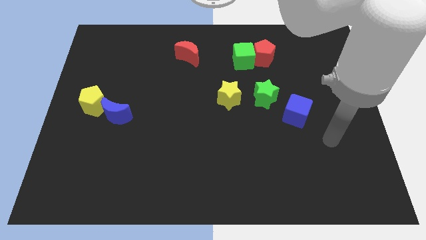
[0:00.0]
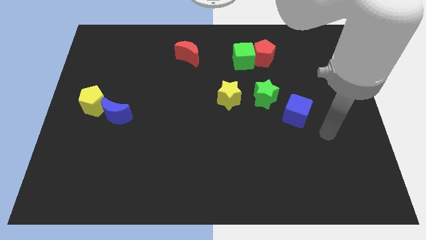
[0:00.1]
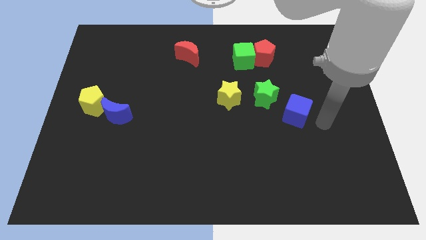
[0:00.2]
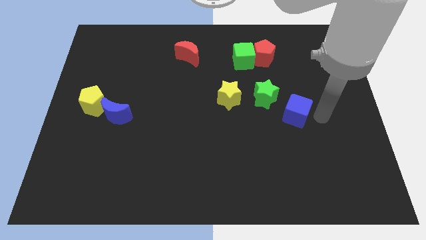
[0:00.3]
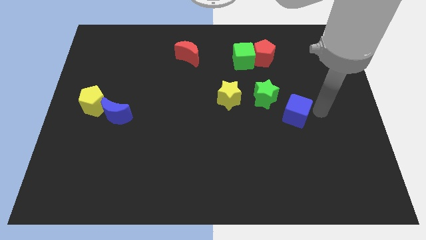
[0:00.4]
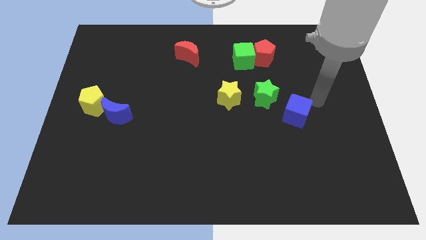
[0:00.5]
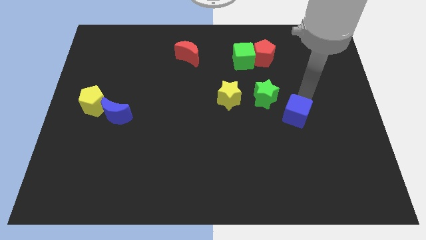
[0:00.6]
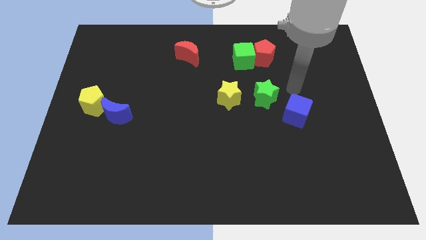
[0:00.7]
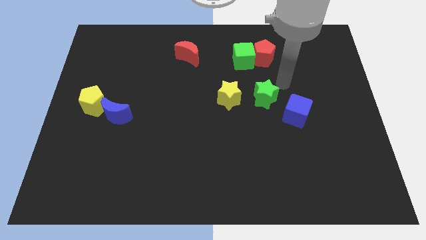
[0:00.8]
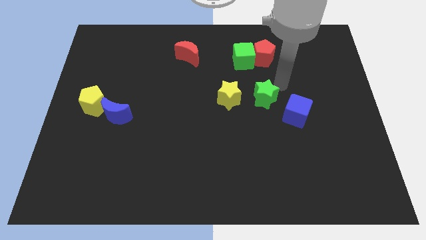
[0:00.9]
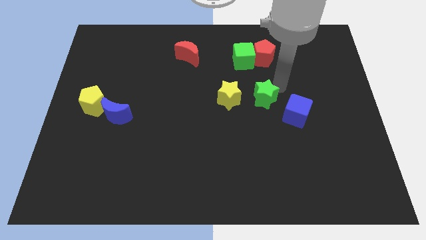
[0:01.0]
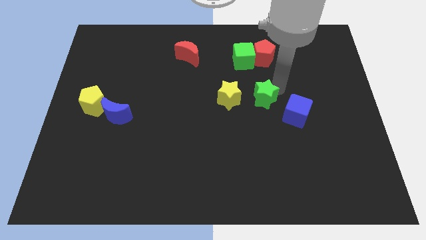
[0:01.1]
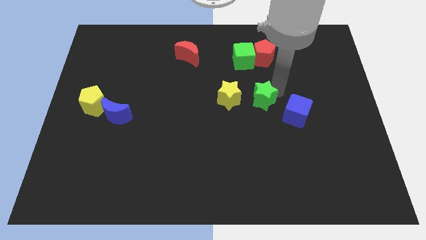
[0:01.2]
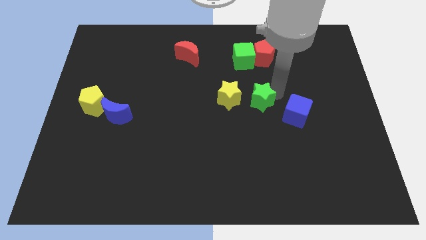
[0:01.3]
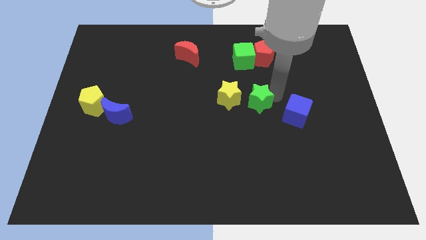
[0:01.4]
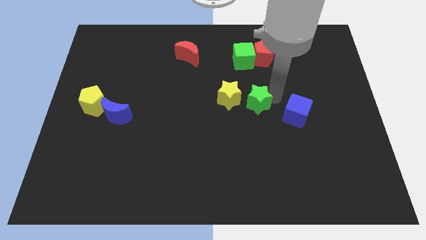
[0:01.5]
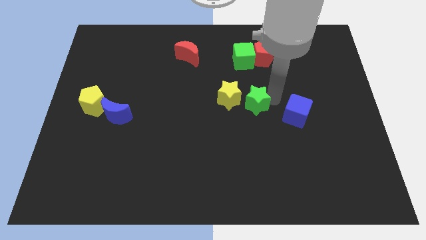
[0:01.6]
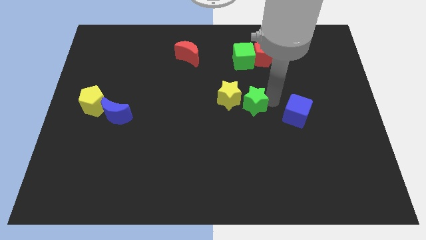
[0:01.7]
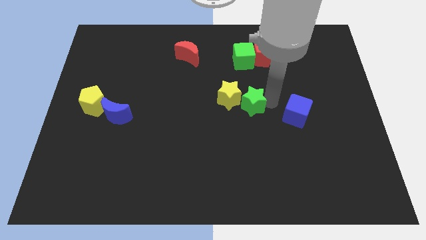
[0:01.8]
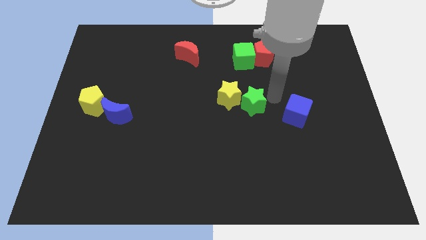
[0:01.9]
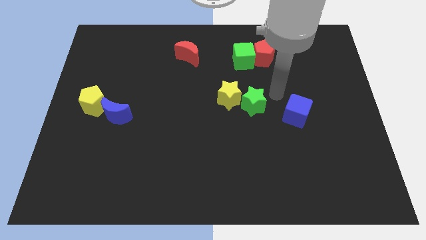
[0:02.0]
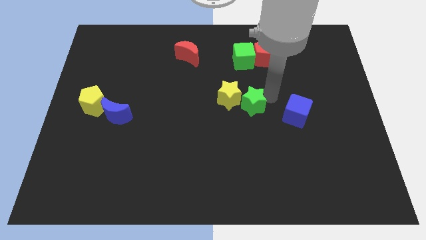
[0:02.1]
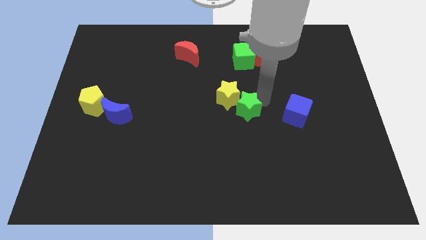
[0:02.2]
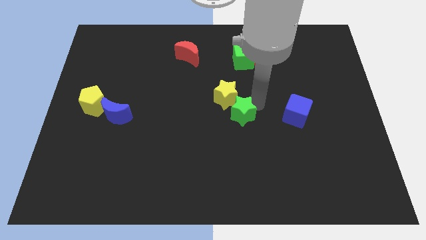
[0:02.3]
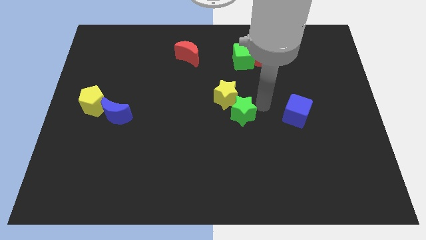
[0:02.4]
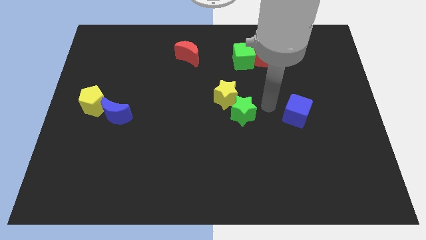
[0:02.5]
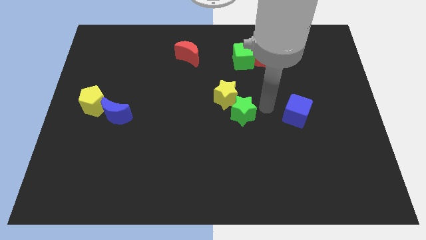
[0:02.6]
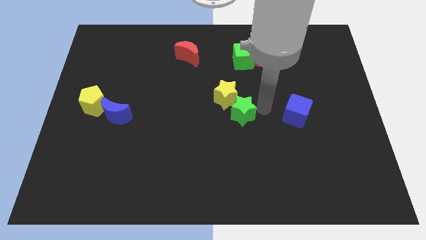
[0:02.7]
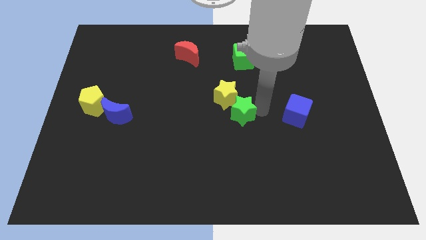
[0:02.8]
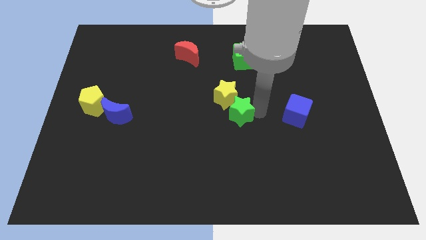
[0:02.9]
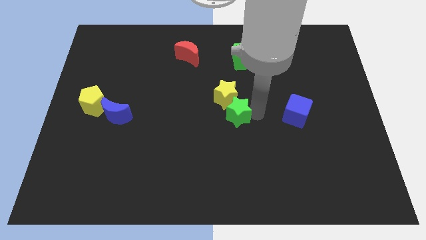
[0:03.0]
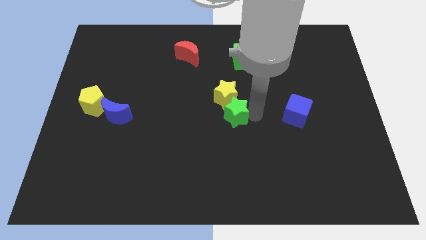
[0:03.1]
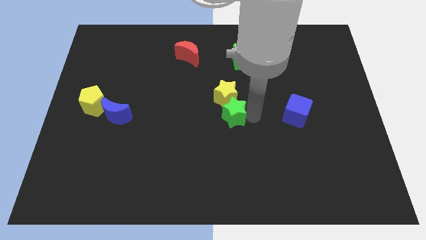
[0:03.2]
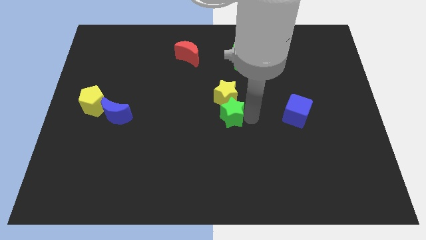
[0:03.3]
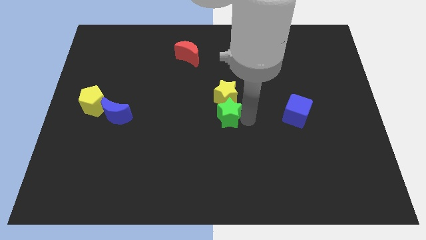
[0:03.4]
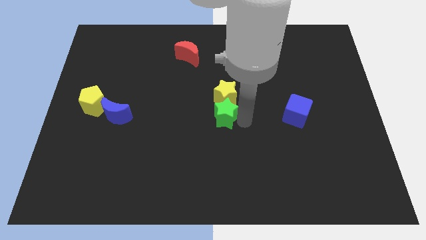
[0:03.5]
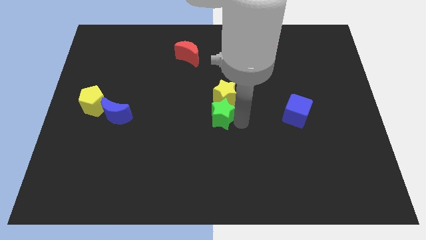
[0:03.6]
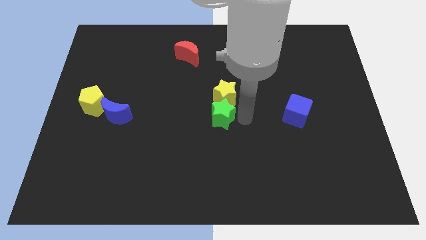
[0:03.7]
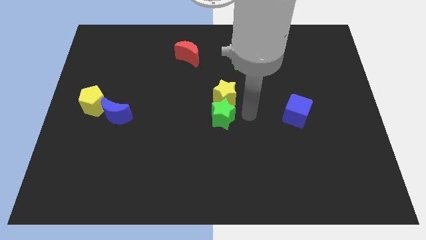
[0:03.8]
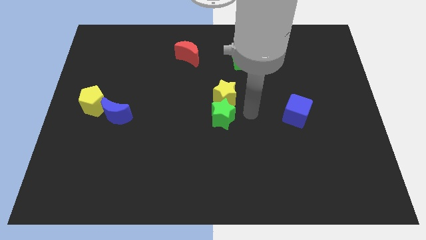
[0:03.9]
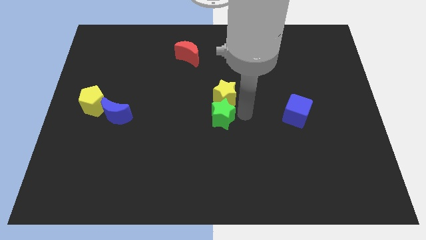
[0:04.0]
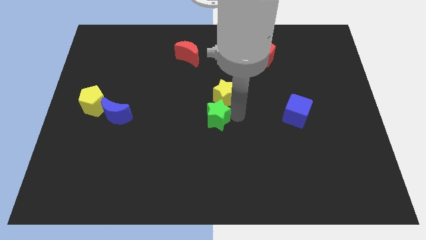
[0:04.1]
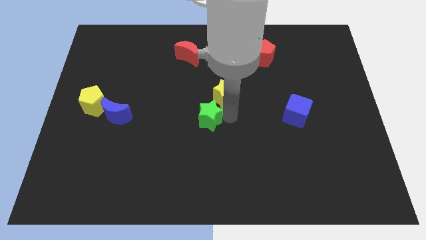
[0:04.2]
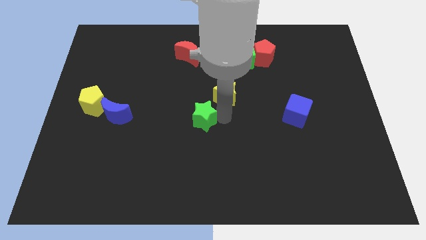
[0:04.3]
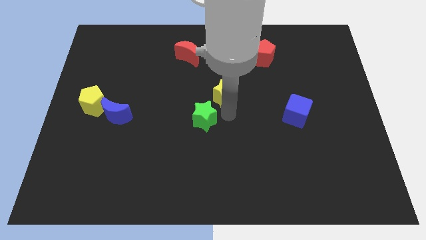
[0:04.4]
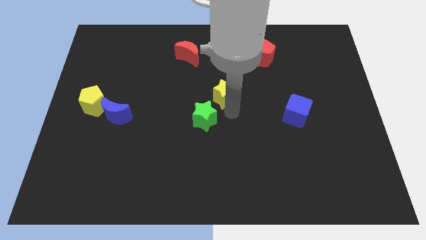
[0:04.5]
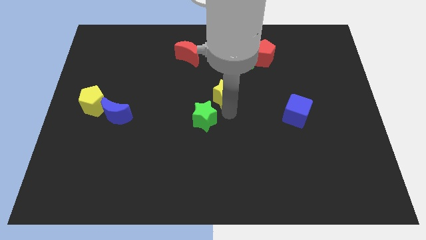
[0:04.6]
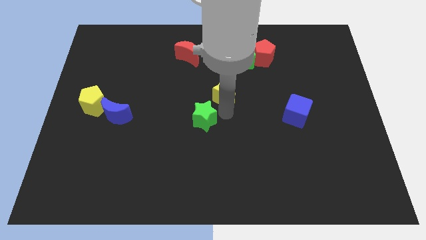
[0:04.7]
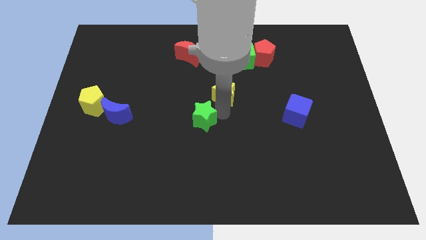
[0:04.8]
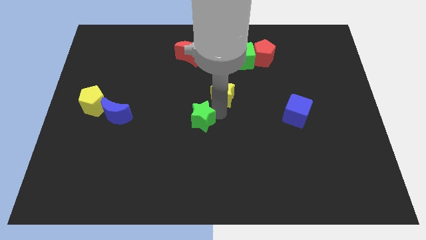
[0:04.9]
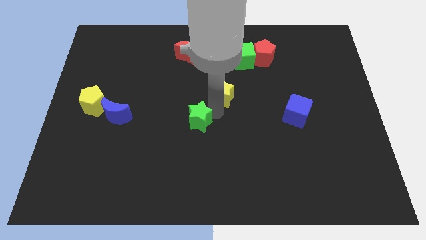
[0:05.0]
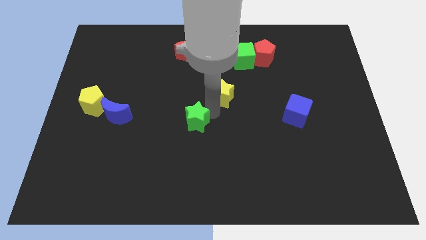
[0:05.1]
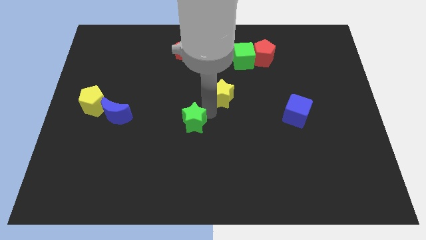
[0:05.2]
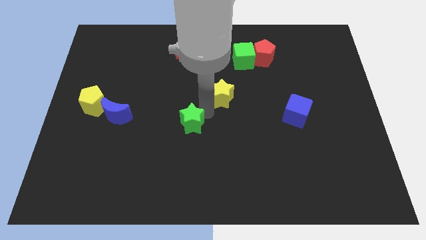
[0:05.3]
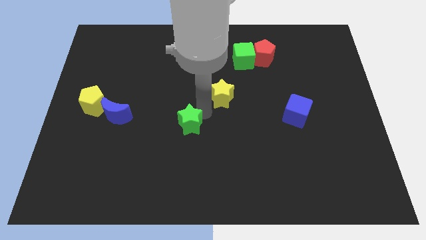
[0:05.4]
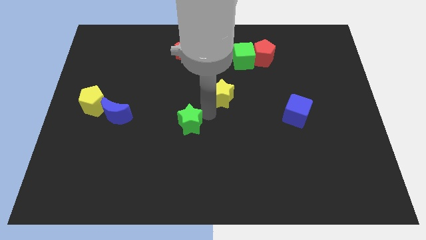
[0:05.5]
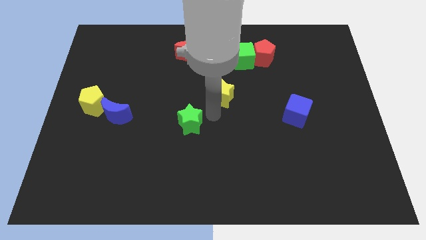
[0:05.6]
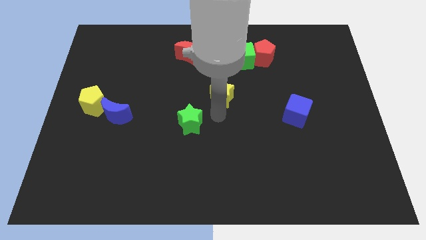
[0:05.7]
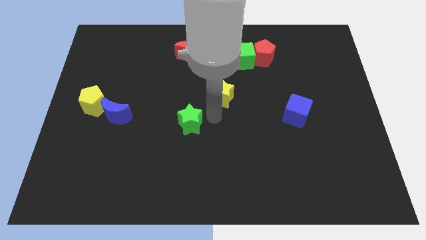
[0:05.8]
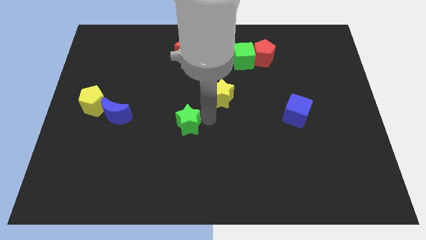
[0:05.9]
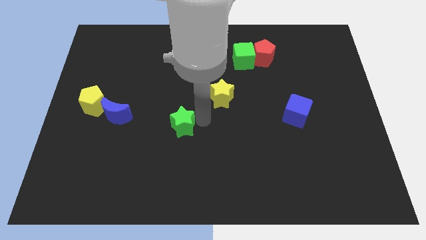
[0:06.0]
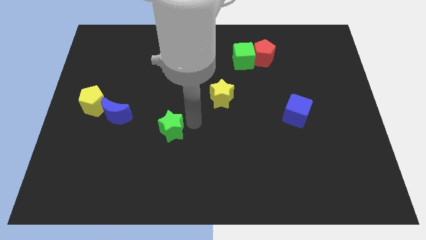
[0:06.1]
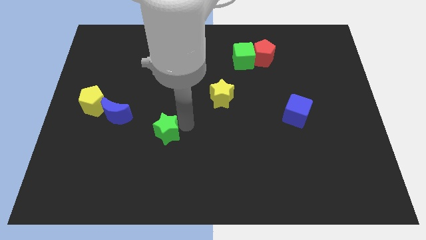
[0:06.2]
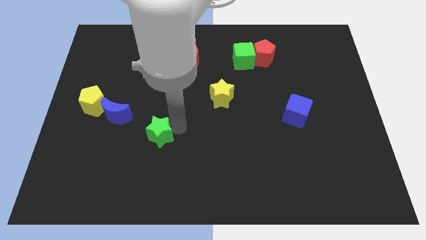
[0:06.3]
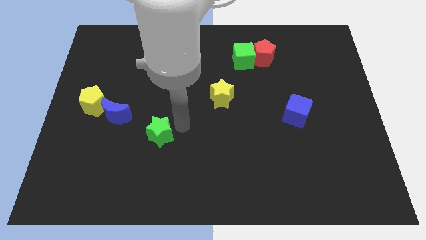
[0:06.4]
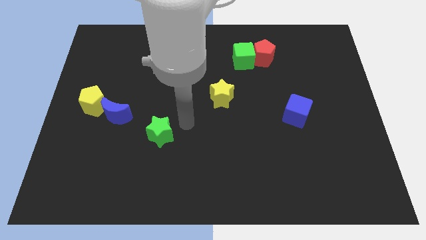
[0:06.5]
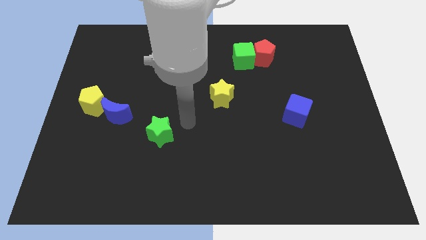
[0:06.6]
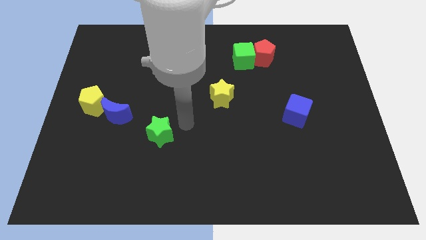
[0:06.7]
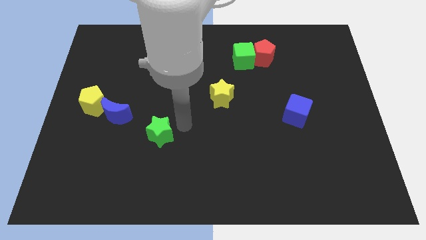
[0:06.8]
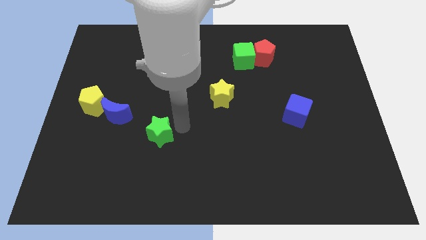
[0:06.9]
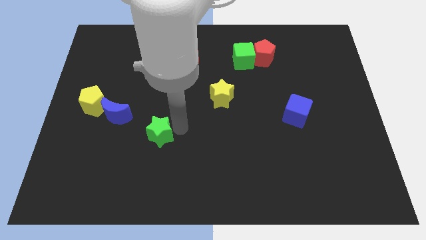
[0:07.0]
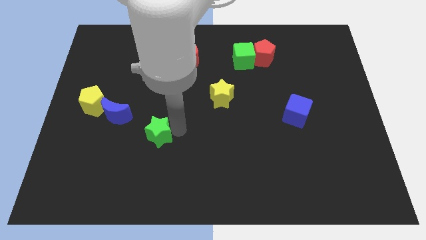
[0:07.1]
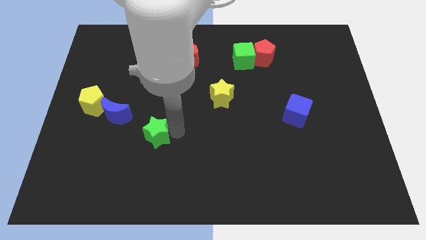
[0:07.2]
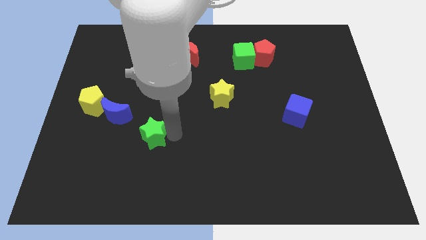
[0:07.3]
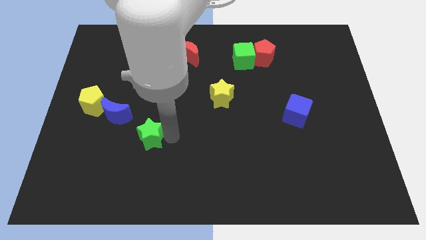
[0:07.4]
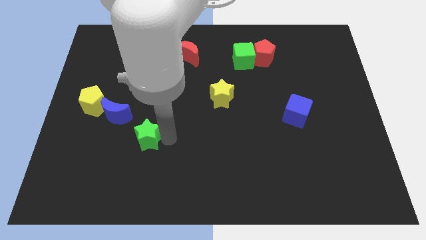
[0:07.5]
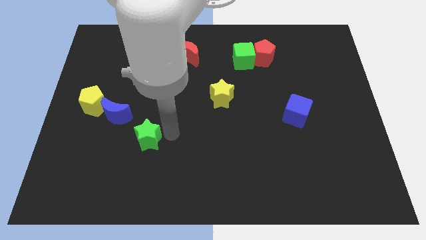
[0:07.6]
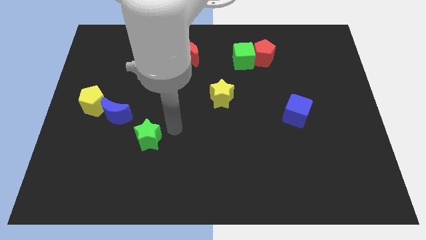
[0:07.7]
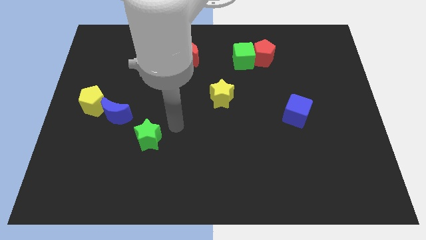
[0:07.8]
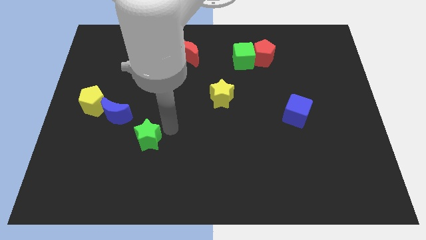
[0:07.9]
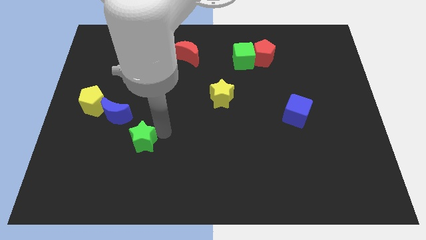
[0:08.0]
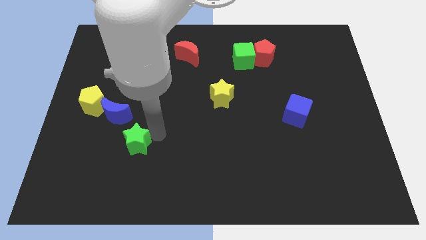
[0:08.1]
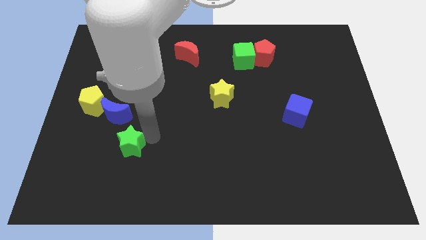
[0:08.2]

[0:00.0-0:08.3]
slide the green star below the blue moon
